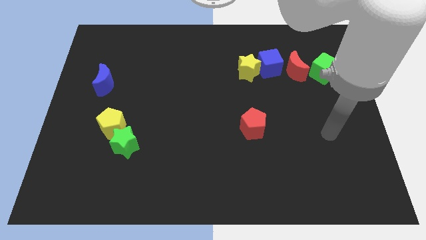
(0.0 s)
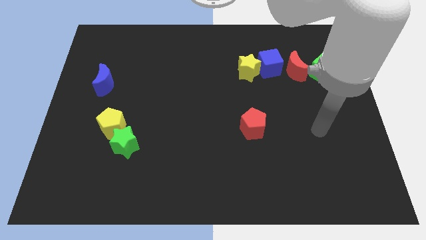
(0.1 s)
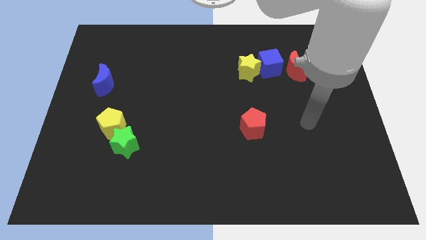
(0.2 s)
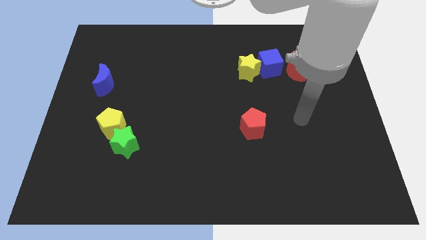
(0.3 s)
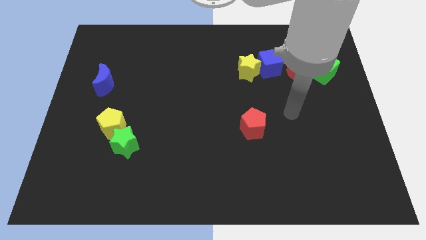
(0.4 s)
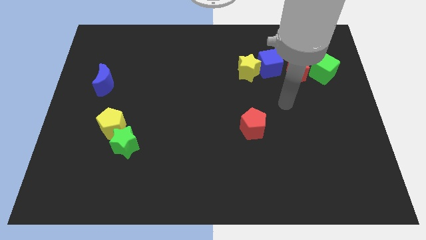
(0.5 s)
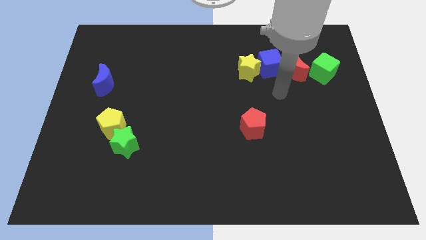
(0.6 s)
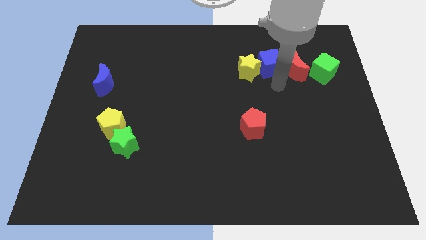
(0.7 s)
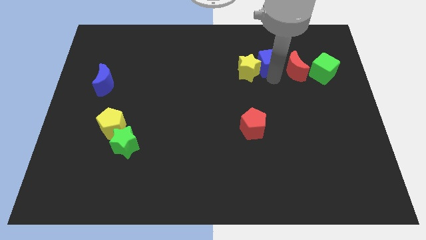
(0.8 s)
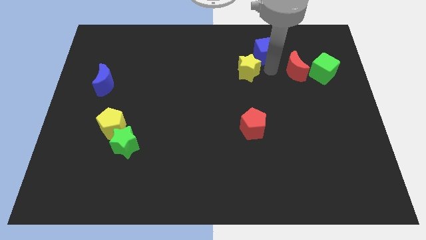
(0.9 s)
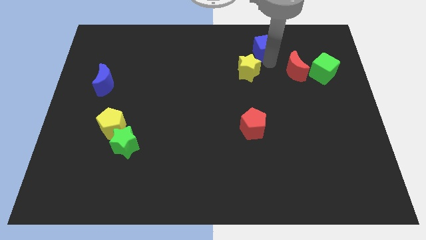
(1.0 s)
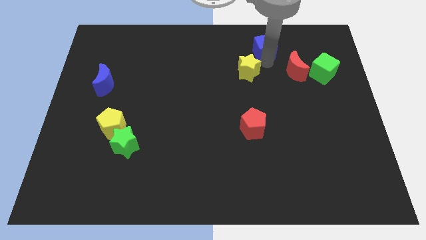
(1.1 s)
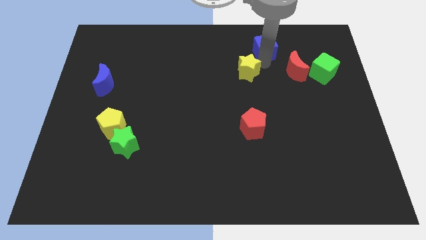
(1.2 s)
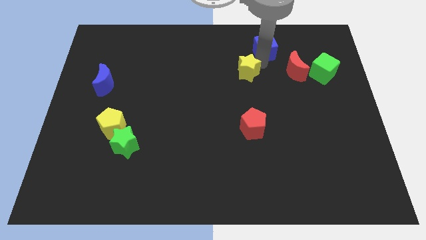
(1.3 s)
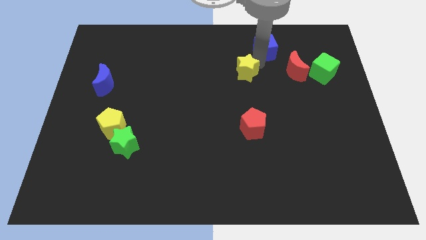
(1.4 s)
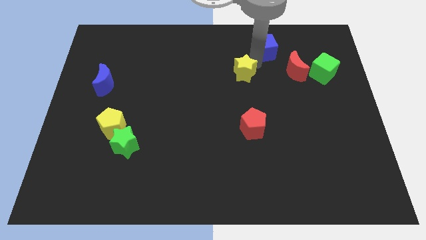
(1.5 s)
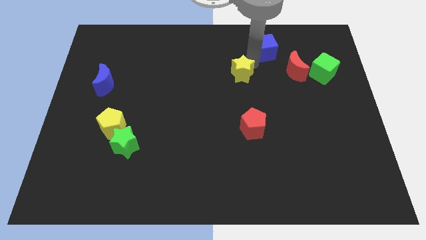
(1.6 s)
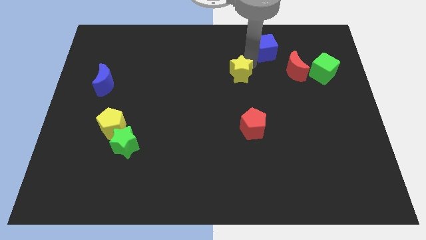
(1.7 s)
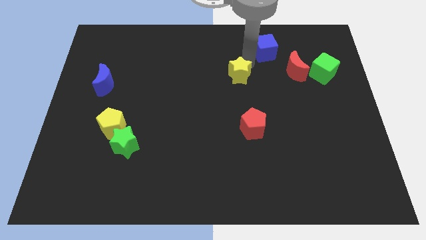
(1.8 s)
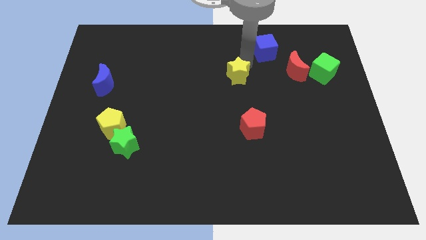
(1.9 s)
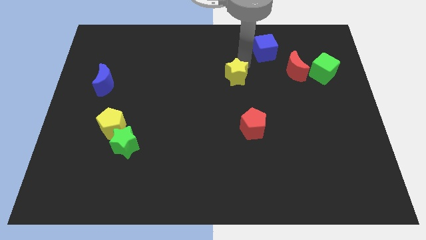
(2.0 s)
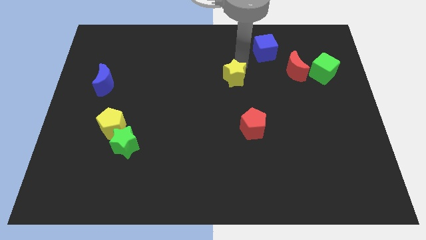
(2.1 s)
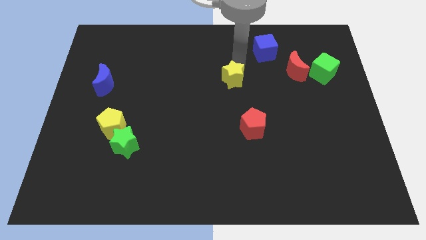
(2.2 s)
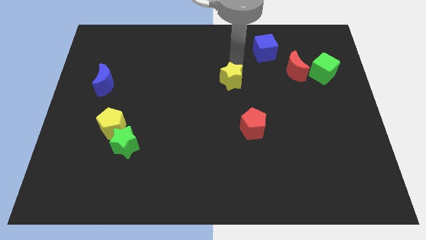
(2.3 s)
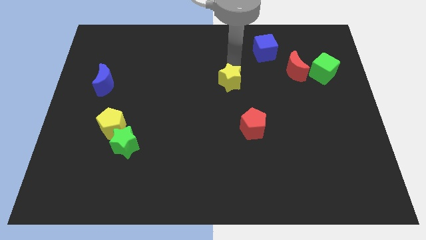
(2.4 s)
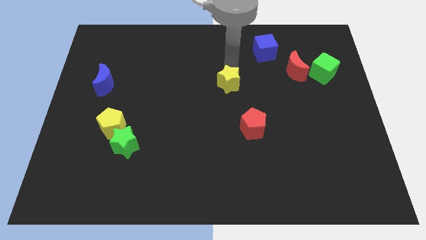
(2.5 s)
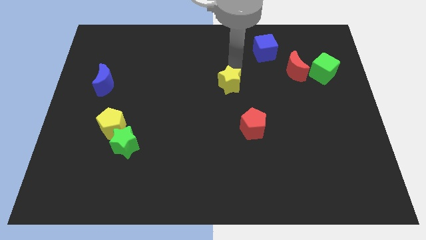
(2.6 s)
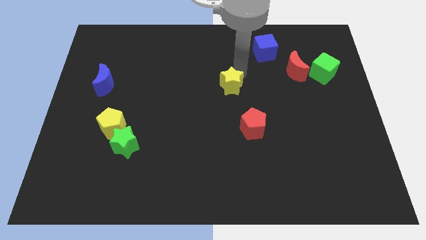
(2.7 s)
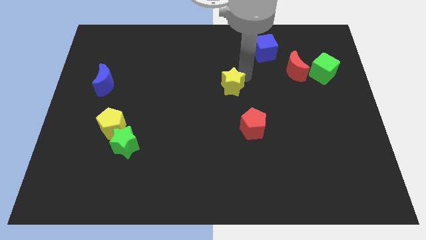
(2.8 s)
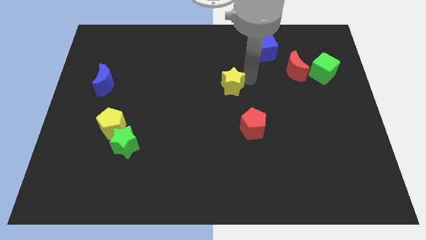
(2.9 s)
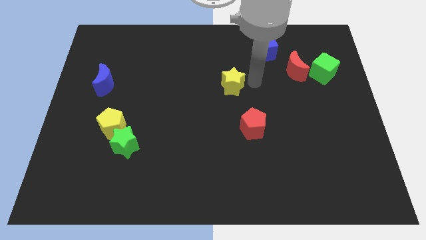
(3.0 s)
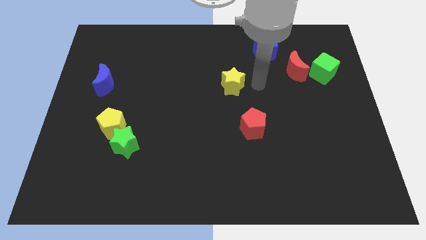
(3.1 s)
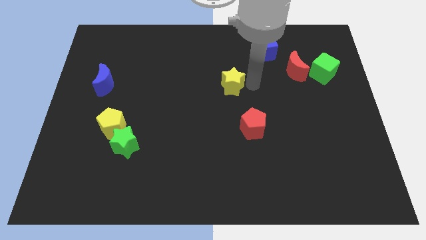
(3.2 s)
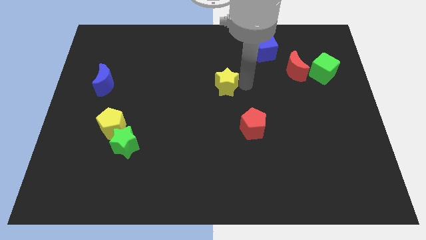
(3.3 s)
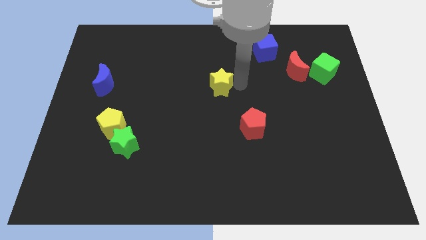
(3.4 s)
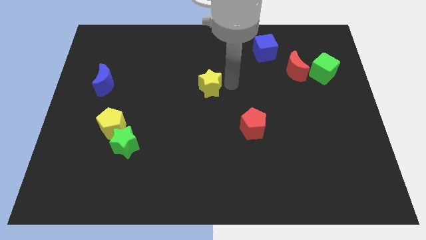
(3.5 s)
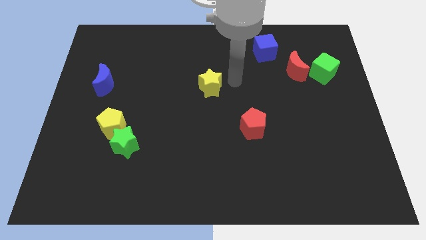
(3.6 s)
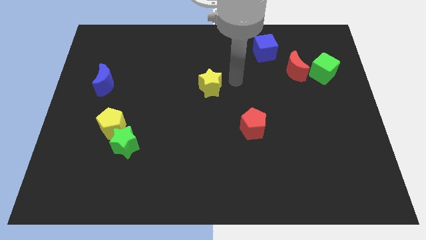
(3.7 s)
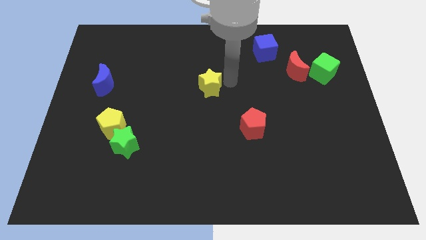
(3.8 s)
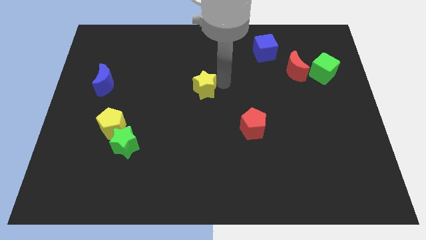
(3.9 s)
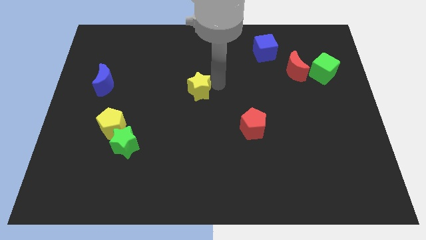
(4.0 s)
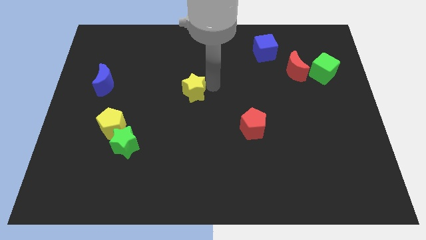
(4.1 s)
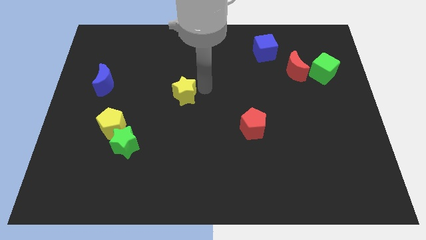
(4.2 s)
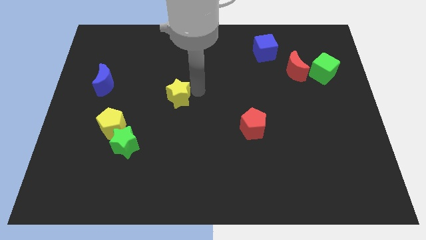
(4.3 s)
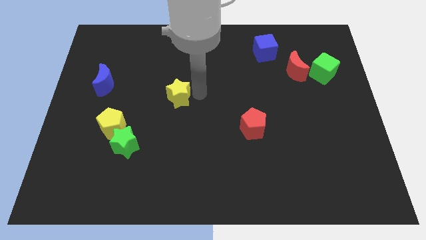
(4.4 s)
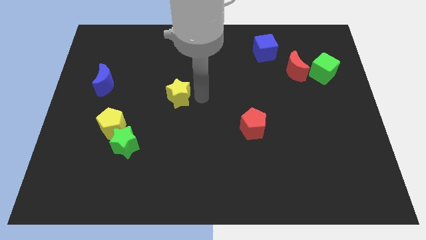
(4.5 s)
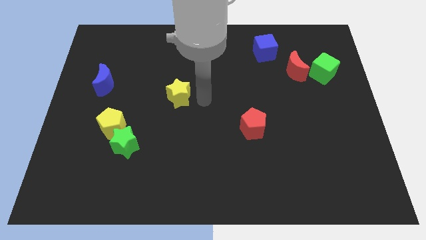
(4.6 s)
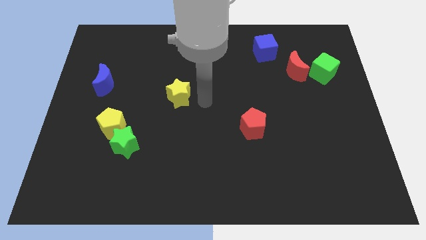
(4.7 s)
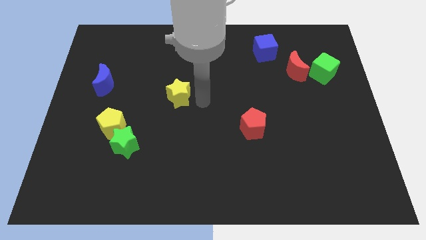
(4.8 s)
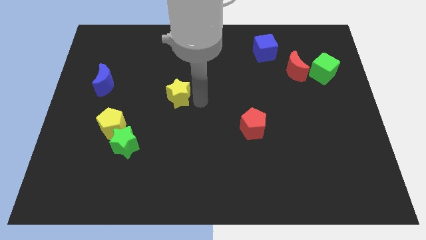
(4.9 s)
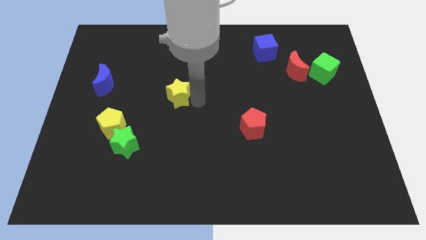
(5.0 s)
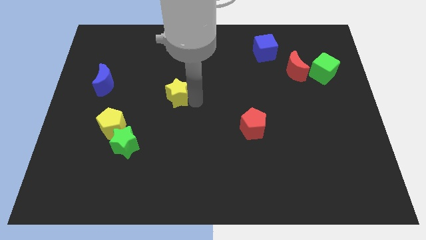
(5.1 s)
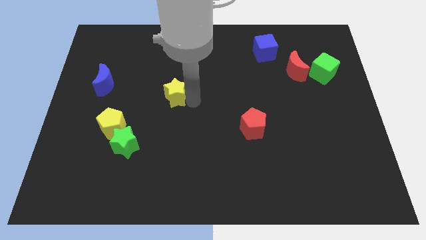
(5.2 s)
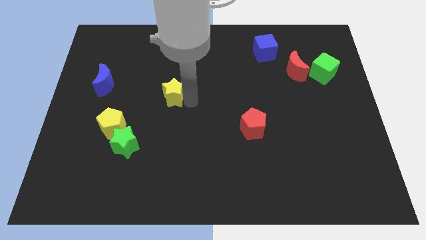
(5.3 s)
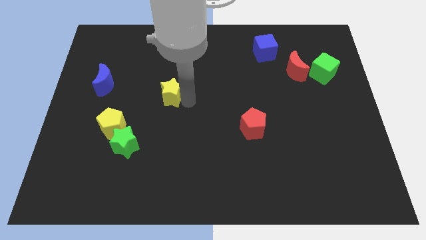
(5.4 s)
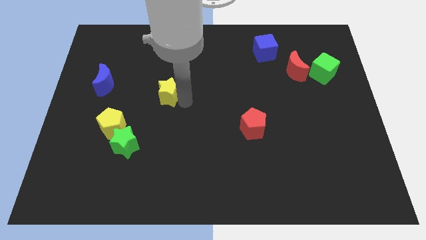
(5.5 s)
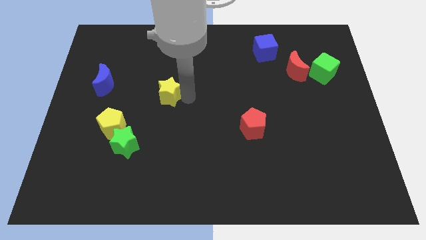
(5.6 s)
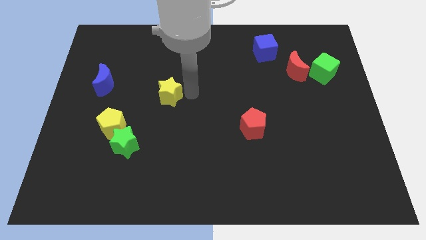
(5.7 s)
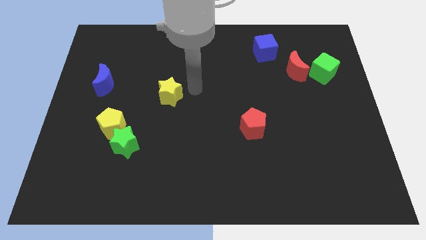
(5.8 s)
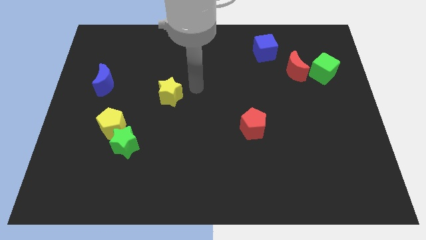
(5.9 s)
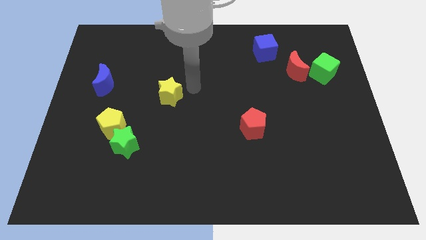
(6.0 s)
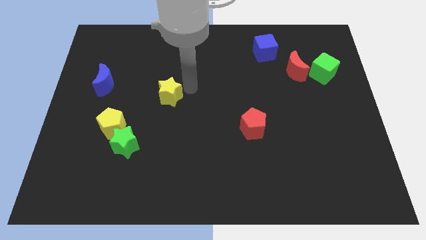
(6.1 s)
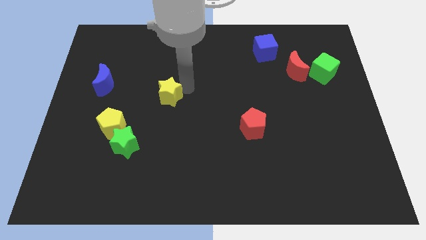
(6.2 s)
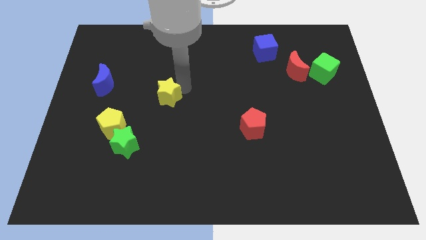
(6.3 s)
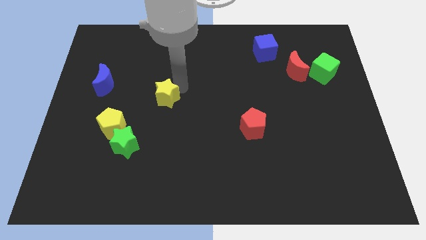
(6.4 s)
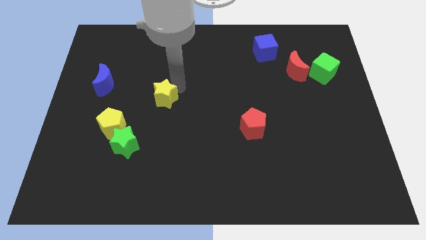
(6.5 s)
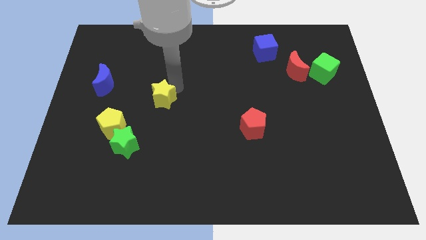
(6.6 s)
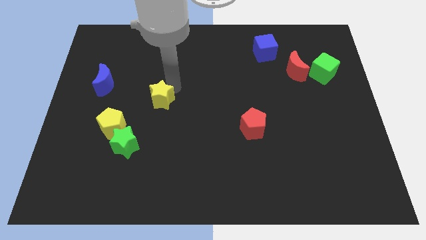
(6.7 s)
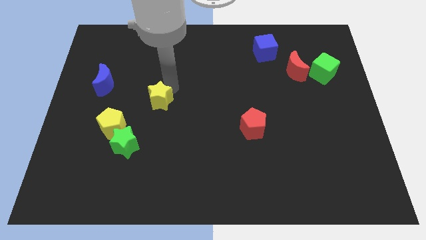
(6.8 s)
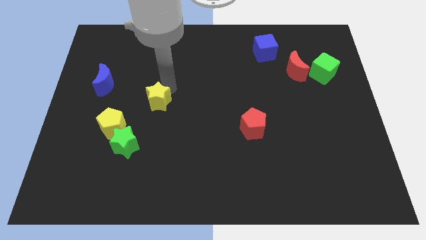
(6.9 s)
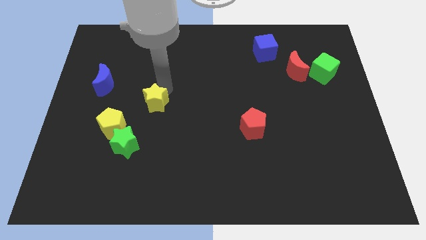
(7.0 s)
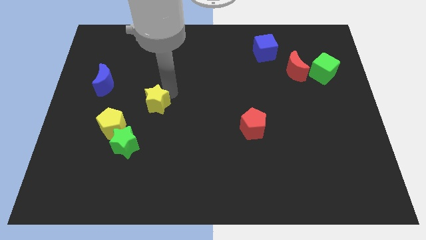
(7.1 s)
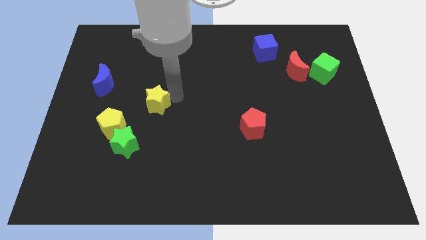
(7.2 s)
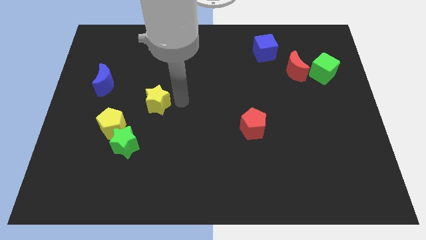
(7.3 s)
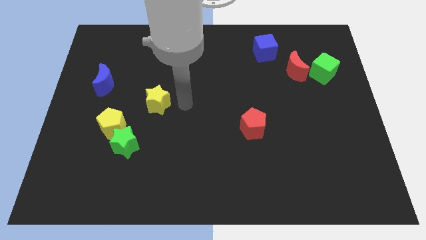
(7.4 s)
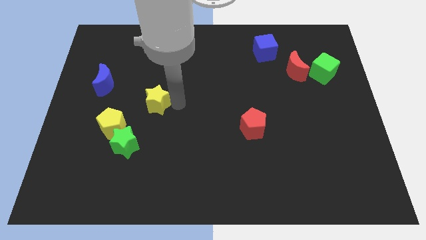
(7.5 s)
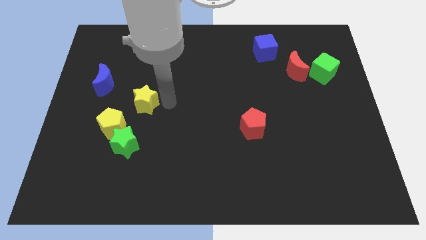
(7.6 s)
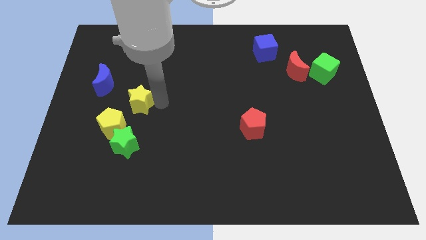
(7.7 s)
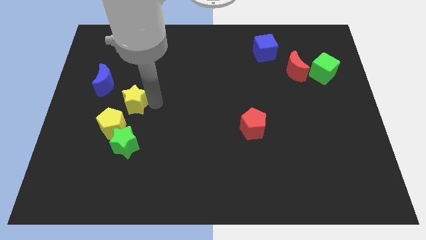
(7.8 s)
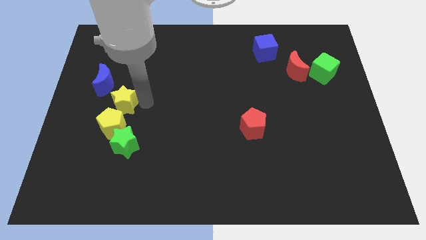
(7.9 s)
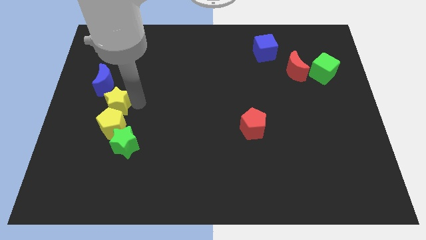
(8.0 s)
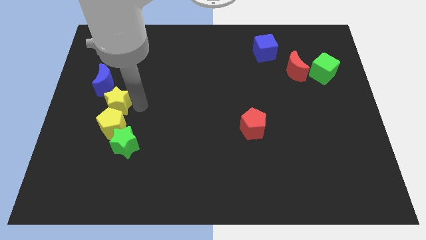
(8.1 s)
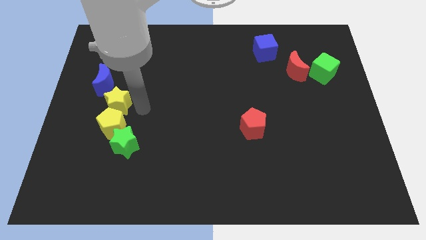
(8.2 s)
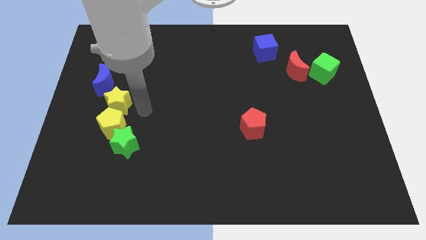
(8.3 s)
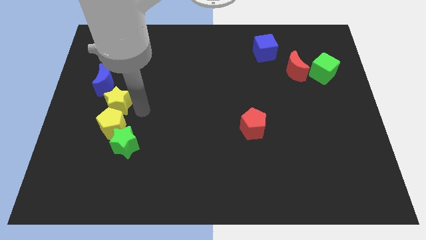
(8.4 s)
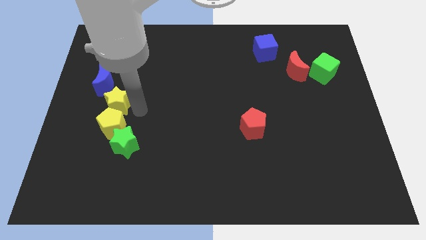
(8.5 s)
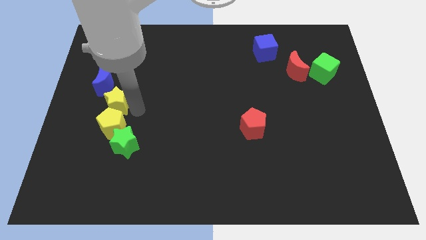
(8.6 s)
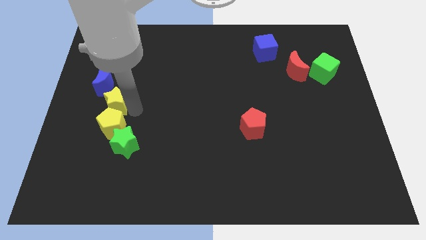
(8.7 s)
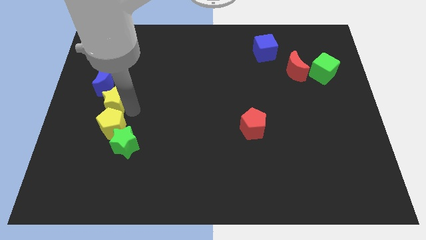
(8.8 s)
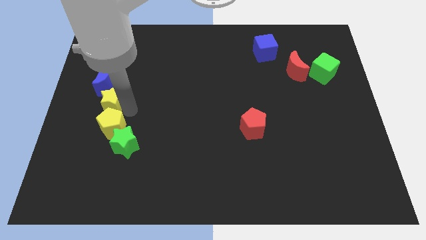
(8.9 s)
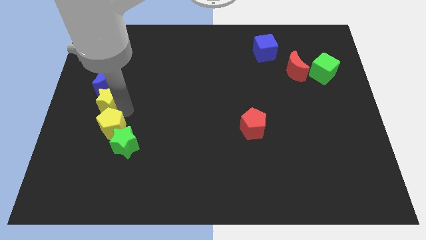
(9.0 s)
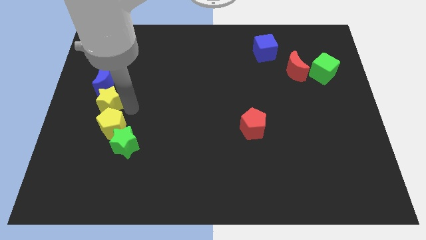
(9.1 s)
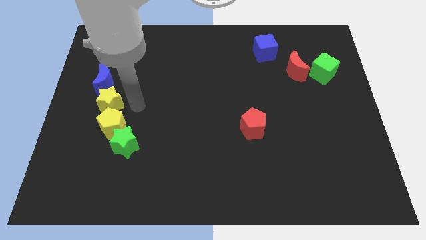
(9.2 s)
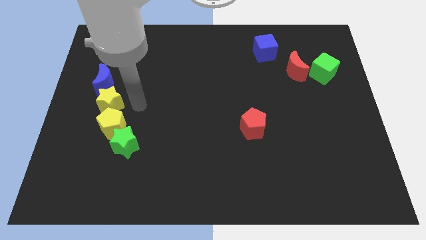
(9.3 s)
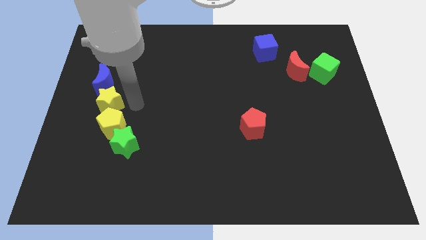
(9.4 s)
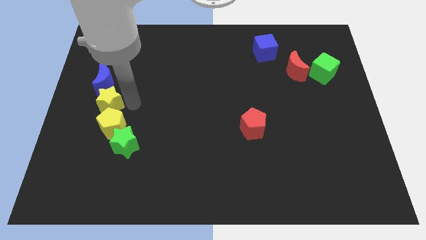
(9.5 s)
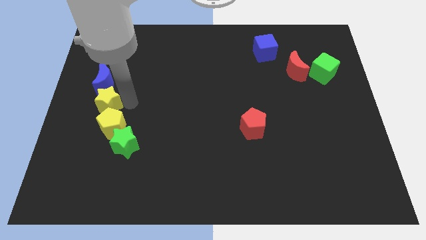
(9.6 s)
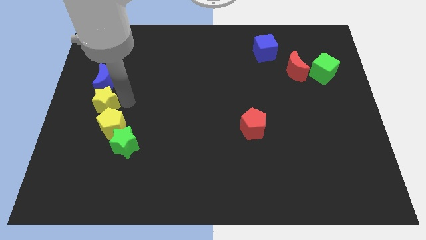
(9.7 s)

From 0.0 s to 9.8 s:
move the yellow star to the center left
